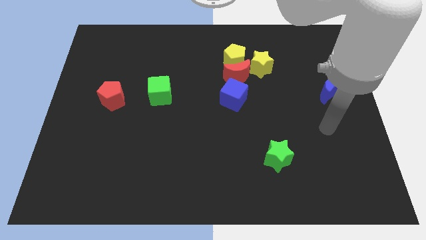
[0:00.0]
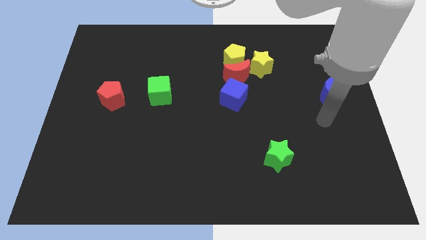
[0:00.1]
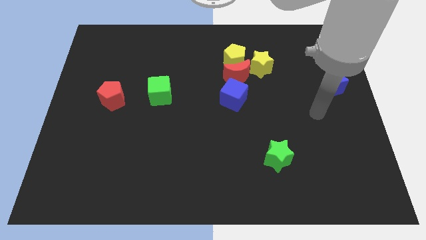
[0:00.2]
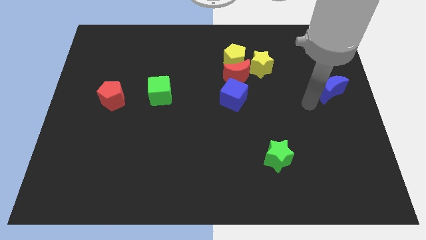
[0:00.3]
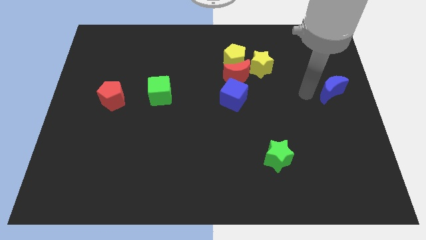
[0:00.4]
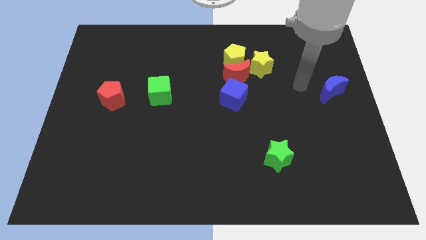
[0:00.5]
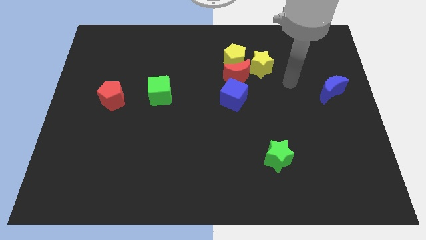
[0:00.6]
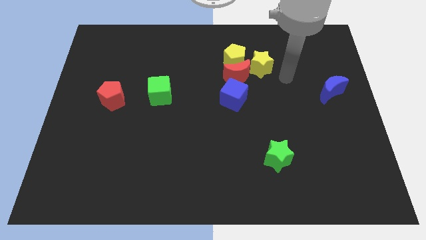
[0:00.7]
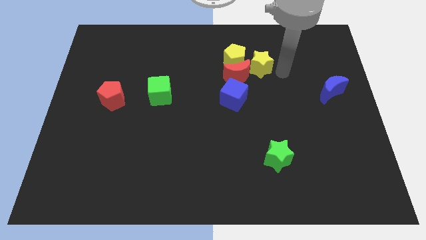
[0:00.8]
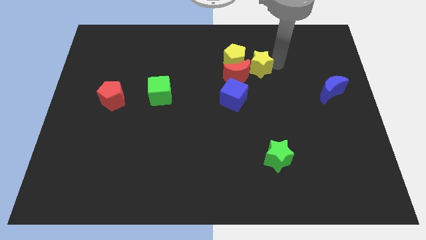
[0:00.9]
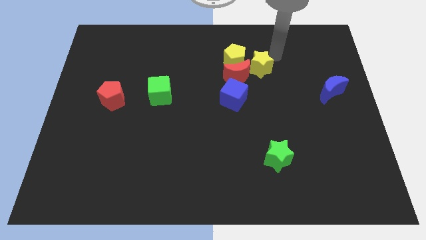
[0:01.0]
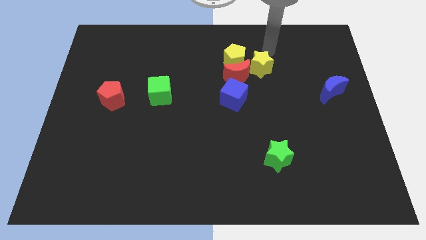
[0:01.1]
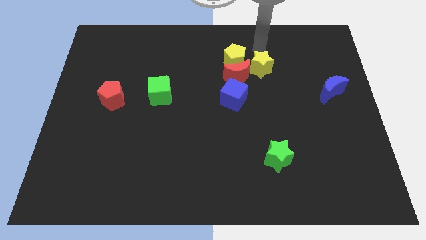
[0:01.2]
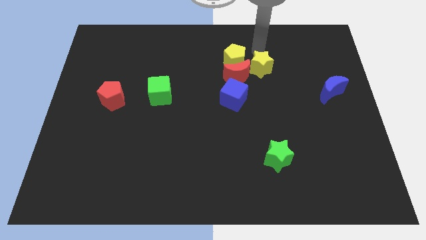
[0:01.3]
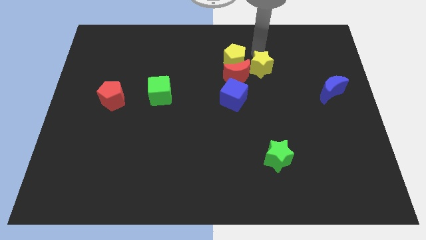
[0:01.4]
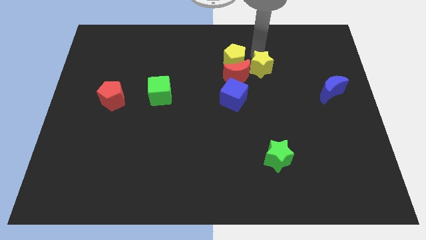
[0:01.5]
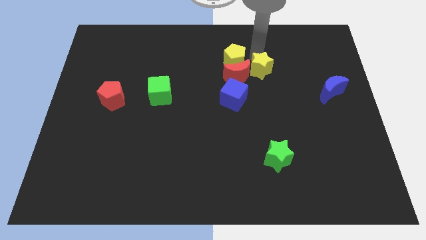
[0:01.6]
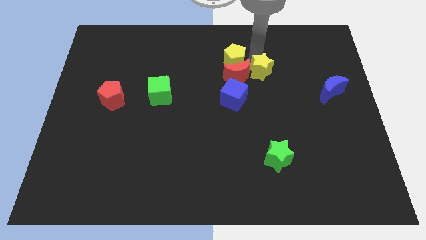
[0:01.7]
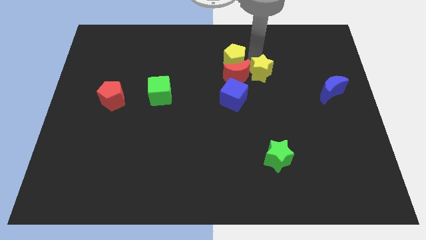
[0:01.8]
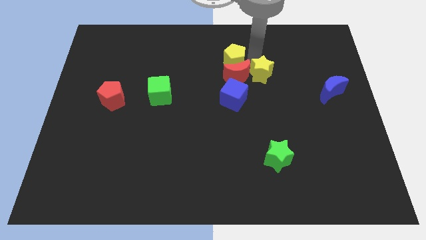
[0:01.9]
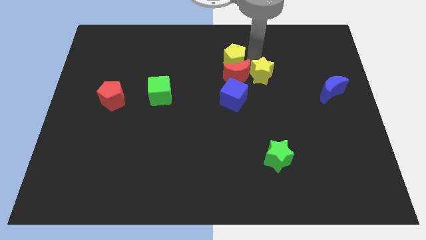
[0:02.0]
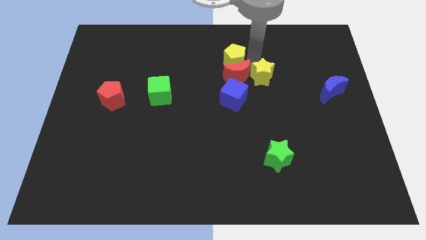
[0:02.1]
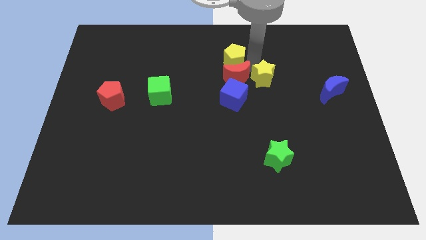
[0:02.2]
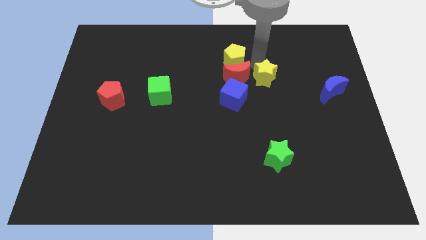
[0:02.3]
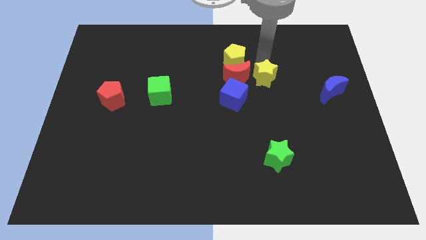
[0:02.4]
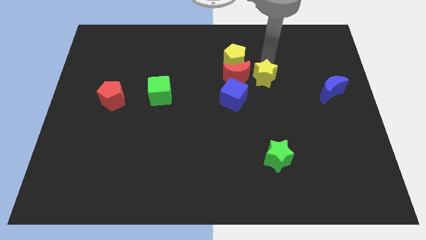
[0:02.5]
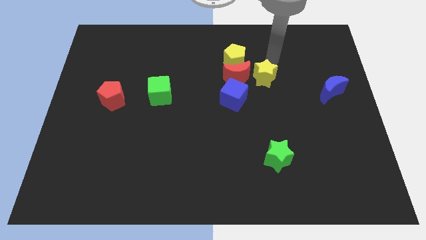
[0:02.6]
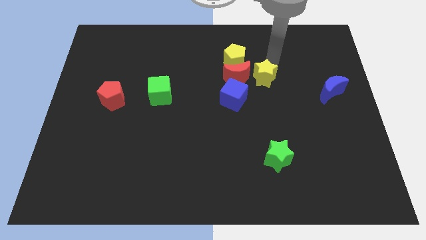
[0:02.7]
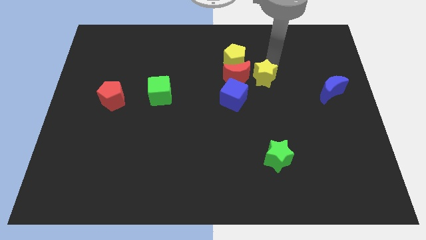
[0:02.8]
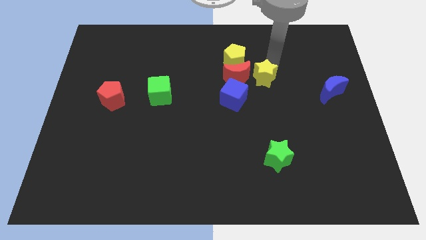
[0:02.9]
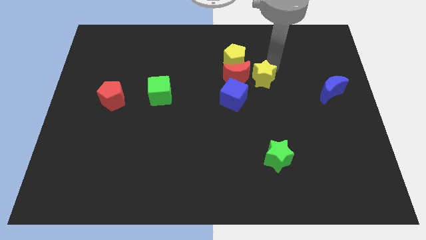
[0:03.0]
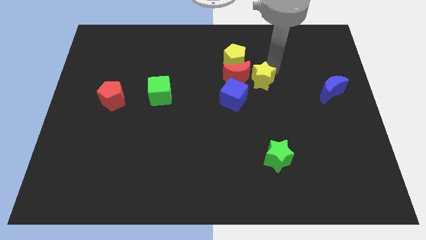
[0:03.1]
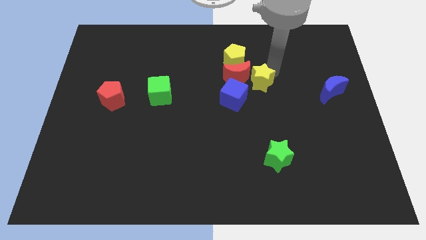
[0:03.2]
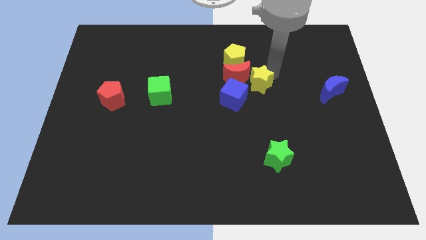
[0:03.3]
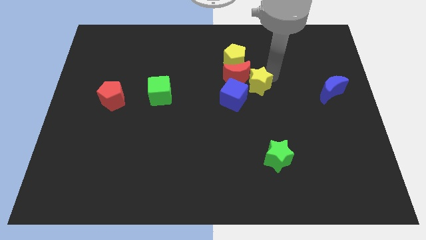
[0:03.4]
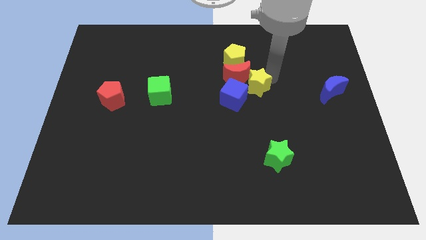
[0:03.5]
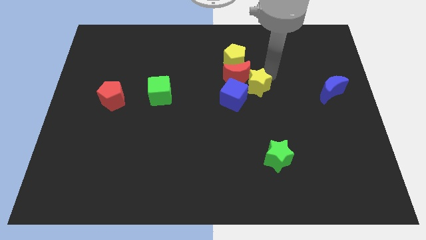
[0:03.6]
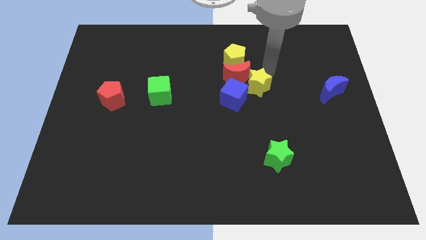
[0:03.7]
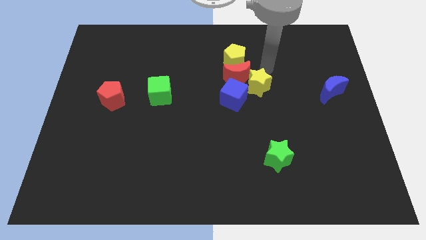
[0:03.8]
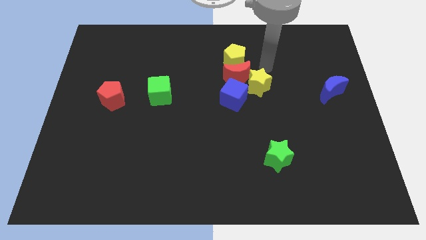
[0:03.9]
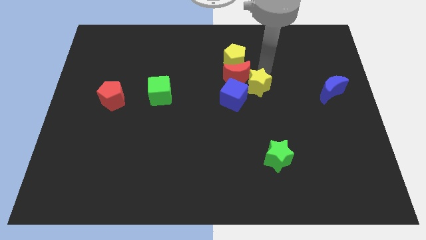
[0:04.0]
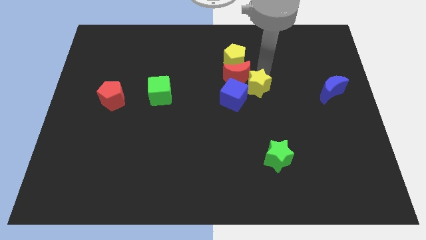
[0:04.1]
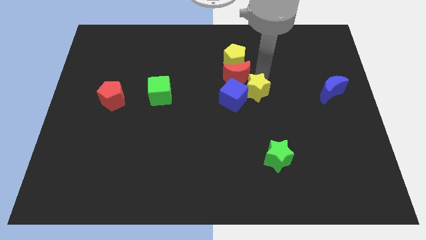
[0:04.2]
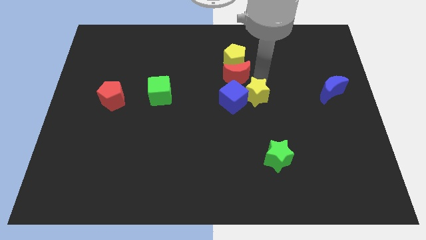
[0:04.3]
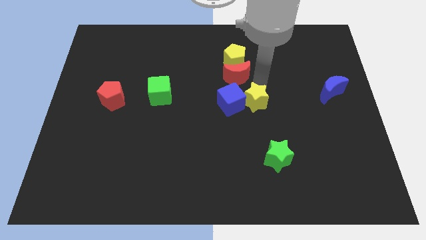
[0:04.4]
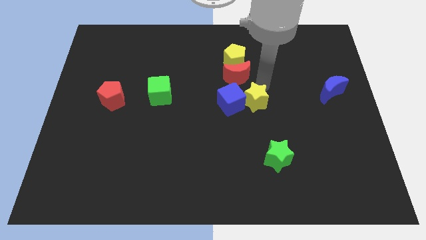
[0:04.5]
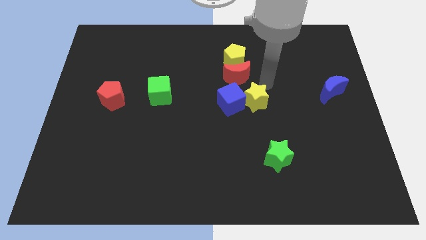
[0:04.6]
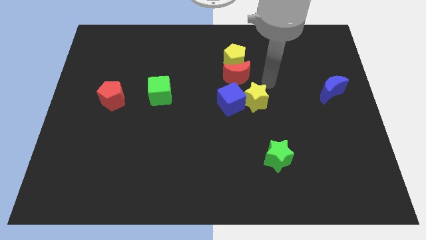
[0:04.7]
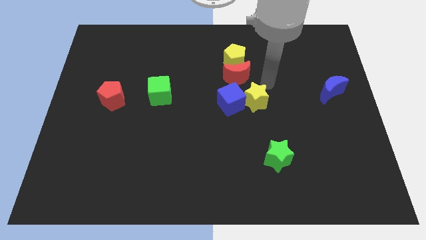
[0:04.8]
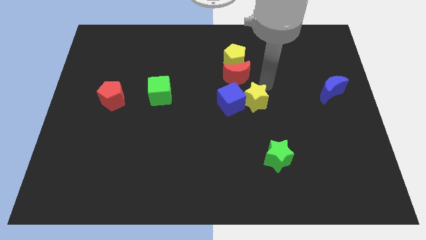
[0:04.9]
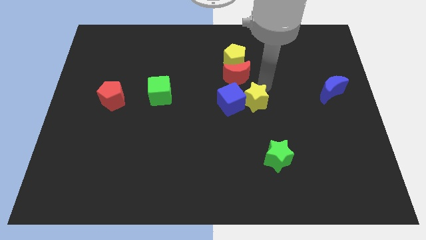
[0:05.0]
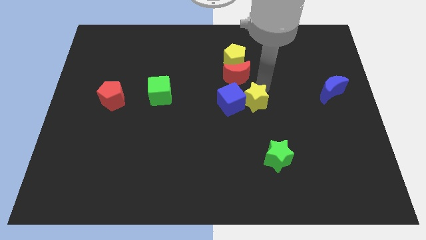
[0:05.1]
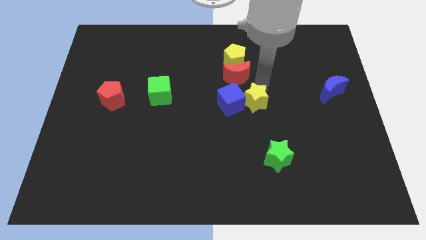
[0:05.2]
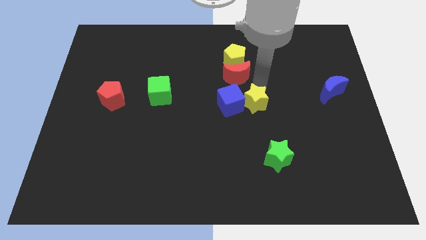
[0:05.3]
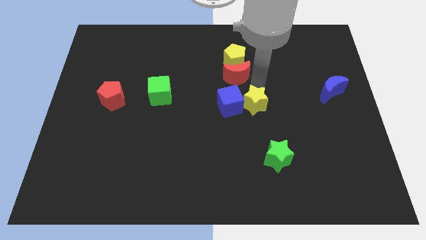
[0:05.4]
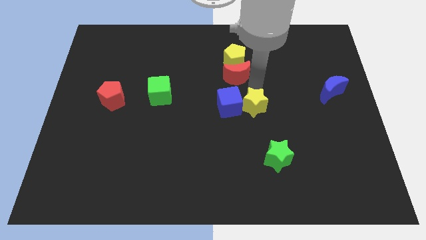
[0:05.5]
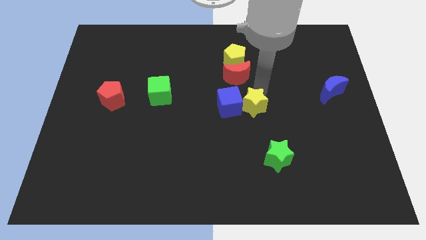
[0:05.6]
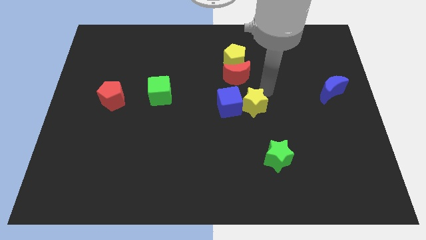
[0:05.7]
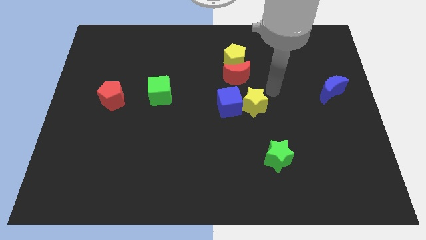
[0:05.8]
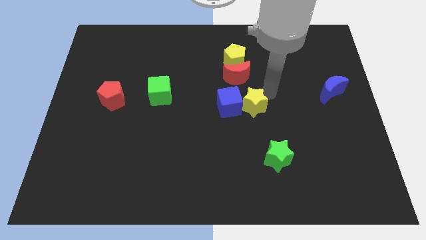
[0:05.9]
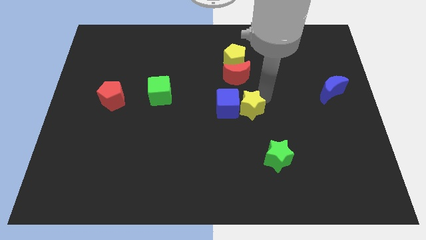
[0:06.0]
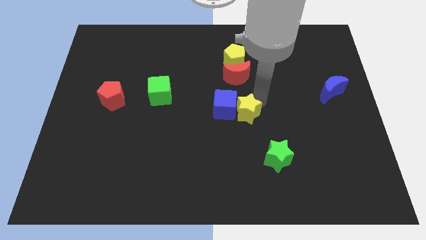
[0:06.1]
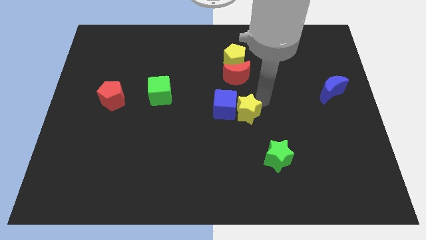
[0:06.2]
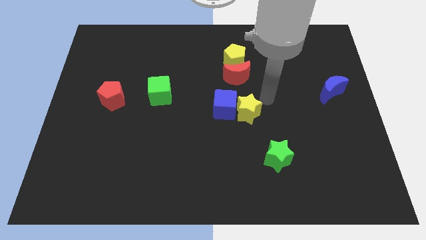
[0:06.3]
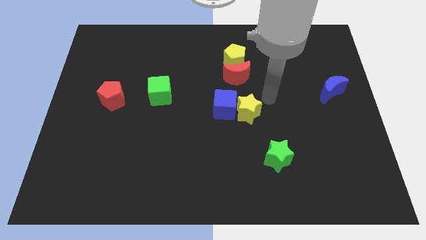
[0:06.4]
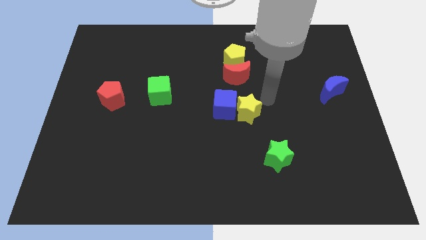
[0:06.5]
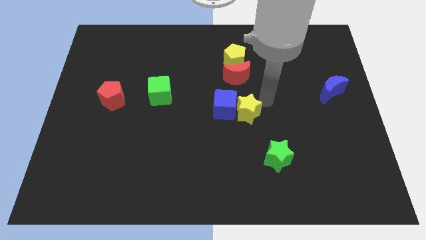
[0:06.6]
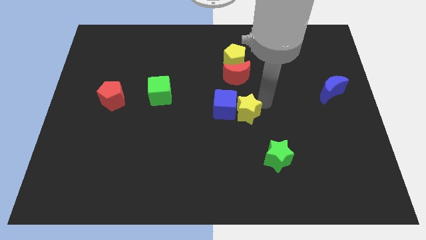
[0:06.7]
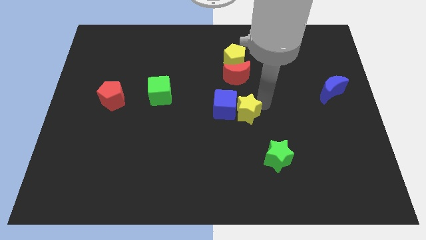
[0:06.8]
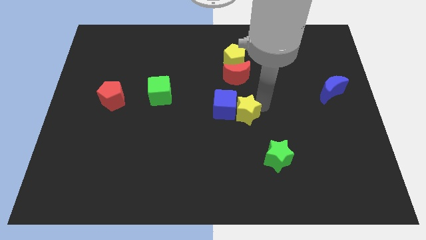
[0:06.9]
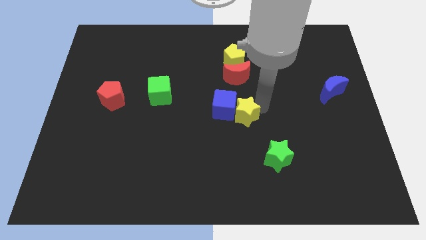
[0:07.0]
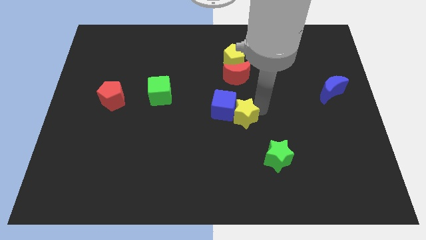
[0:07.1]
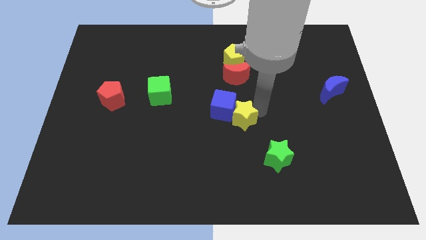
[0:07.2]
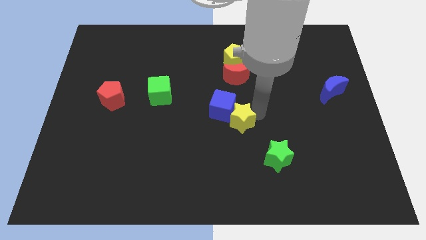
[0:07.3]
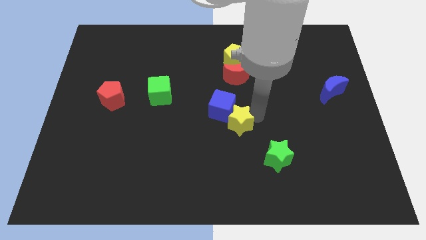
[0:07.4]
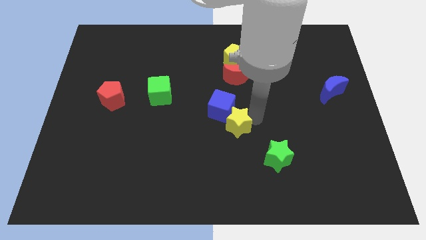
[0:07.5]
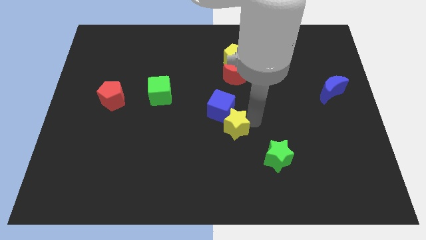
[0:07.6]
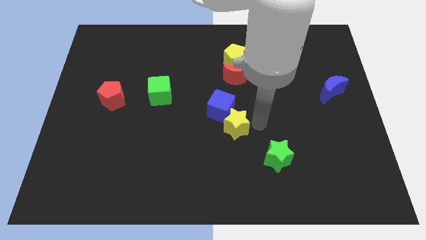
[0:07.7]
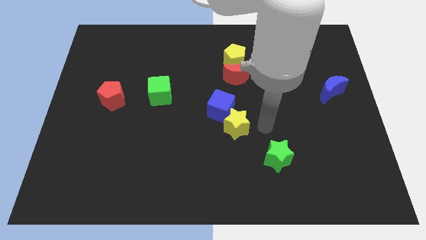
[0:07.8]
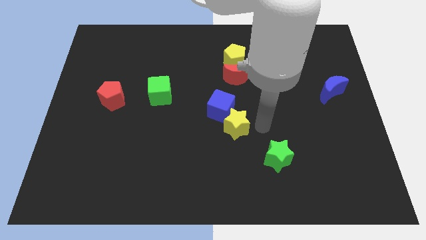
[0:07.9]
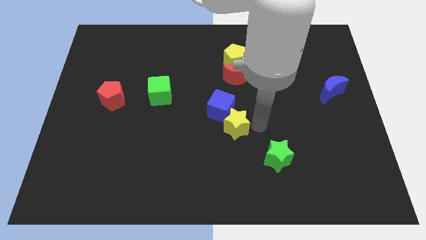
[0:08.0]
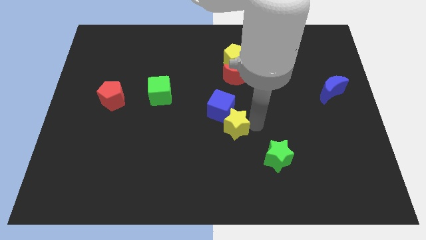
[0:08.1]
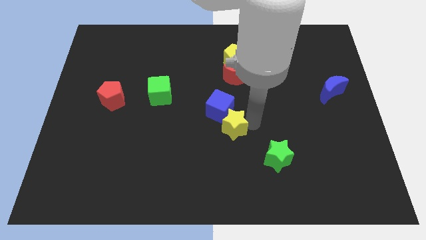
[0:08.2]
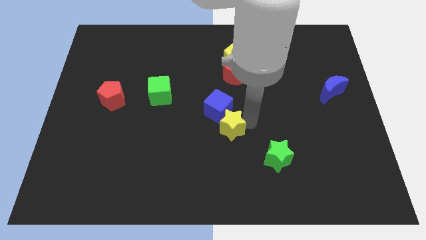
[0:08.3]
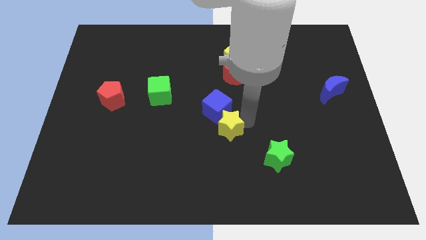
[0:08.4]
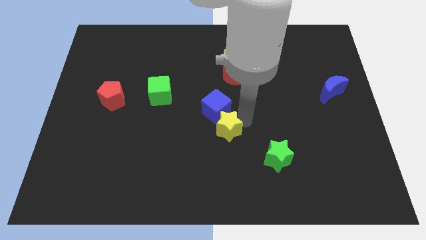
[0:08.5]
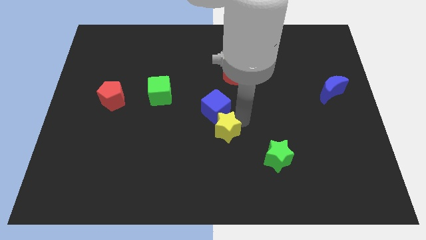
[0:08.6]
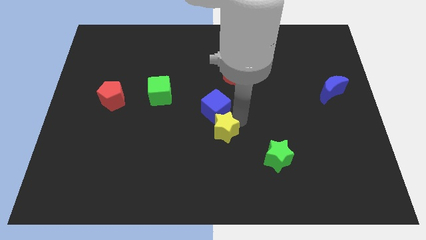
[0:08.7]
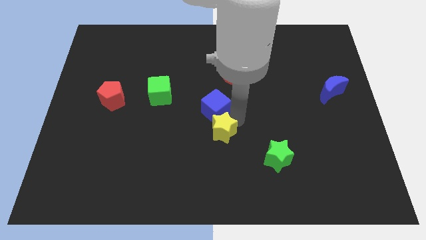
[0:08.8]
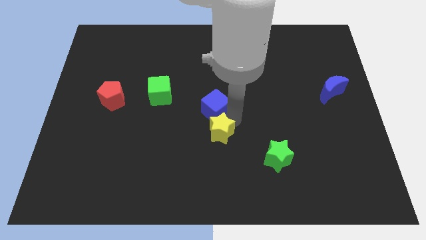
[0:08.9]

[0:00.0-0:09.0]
move the yellow star diagonally downwards and left
